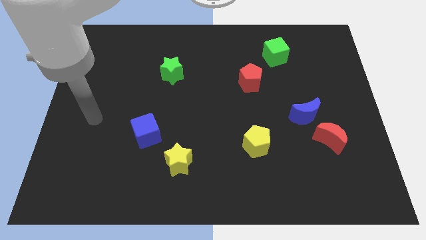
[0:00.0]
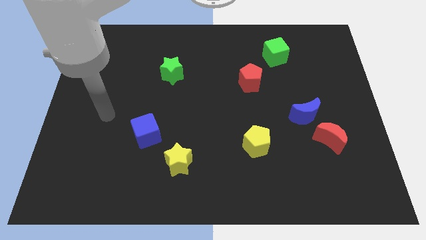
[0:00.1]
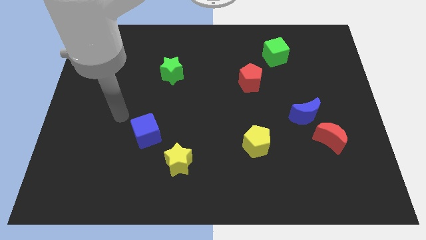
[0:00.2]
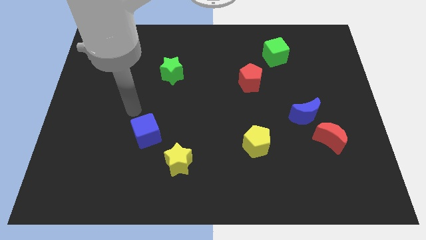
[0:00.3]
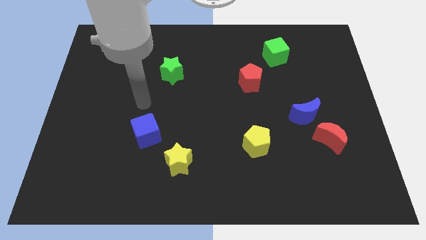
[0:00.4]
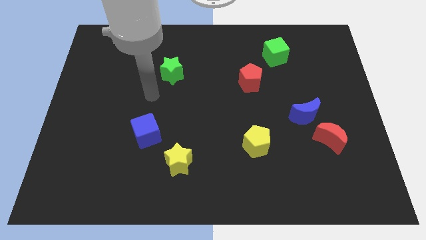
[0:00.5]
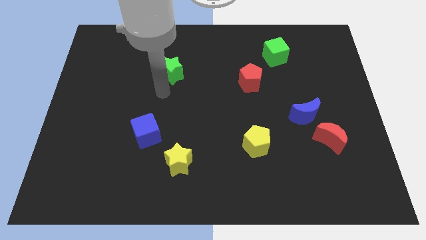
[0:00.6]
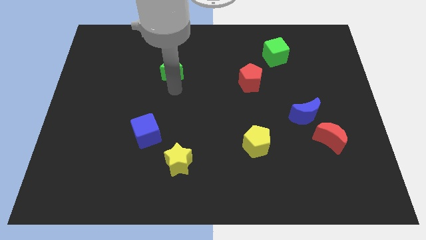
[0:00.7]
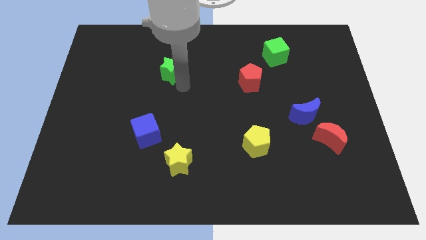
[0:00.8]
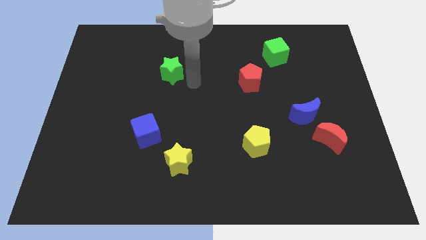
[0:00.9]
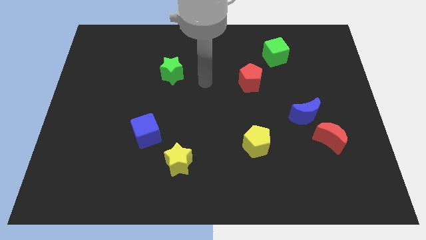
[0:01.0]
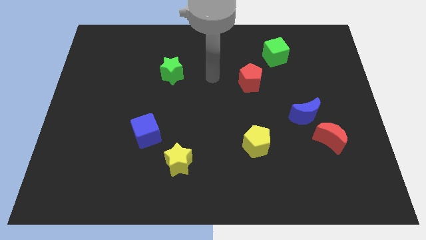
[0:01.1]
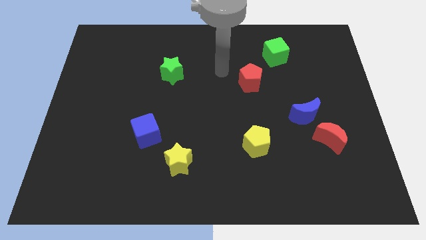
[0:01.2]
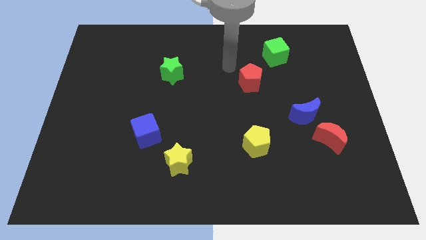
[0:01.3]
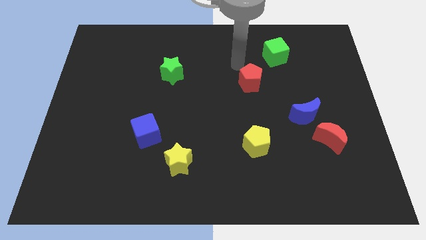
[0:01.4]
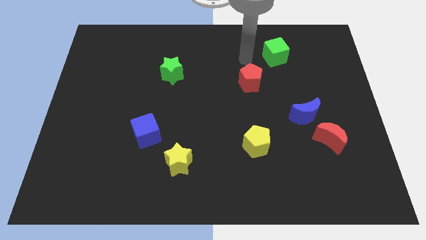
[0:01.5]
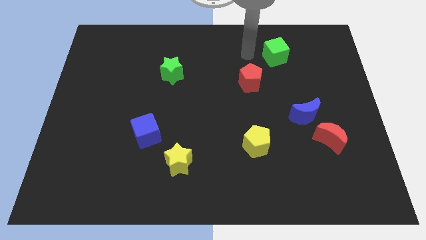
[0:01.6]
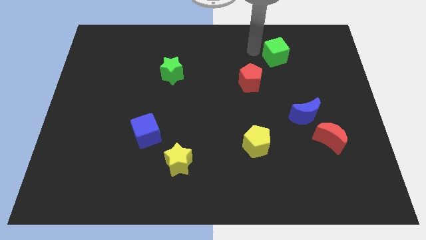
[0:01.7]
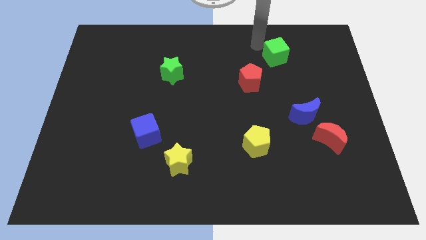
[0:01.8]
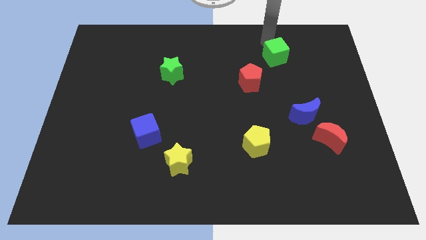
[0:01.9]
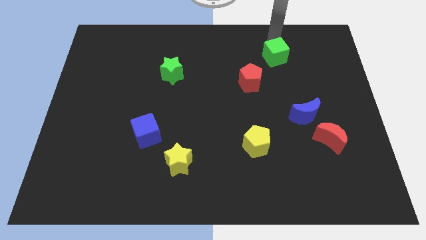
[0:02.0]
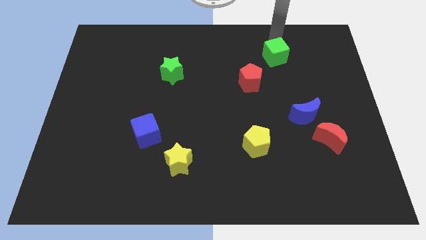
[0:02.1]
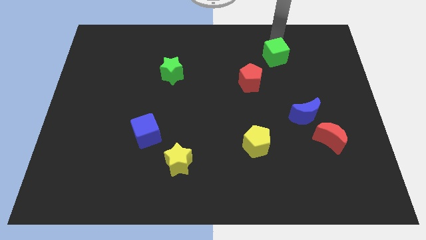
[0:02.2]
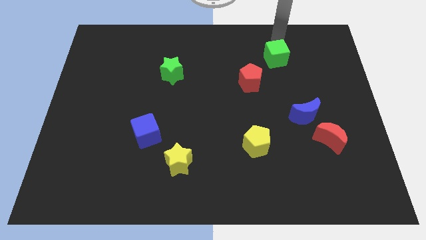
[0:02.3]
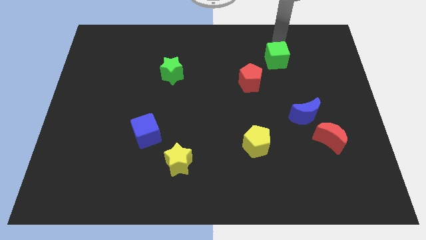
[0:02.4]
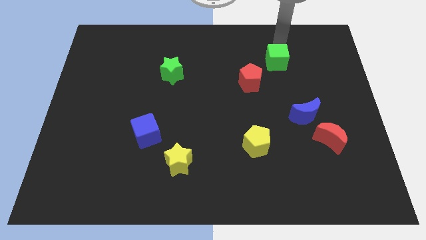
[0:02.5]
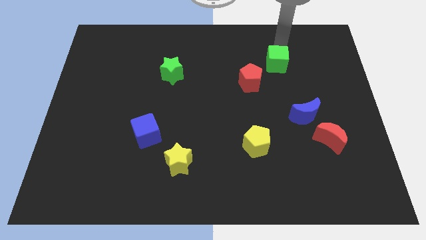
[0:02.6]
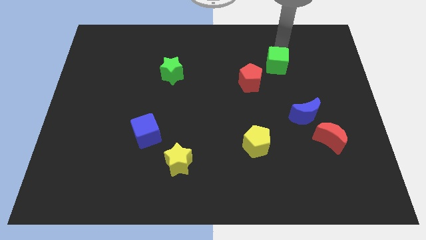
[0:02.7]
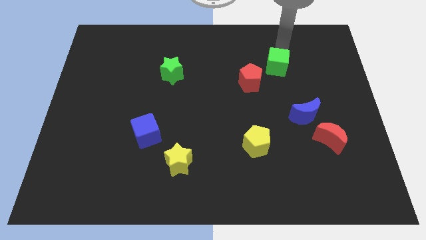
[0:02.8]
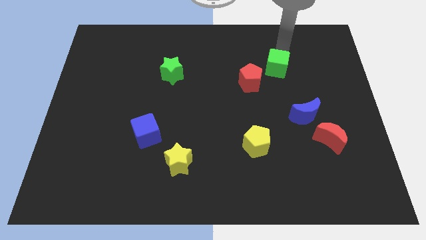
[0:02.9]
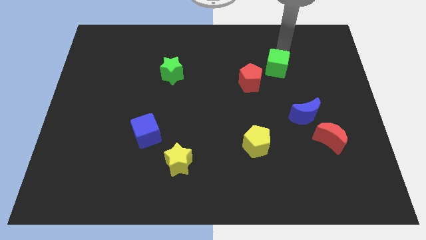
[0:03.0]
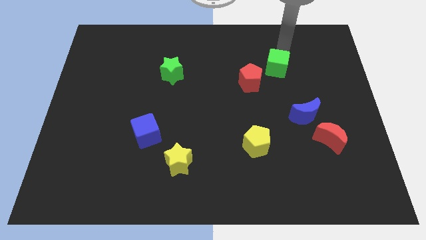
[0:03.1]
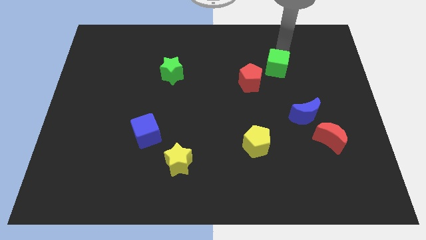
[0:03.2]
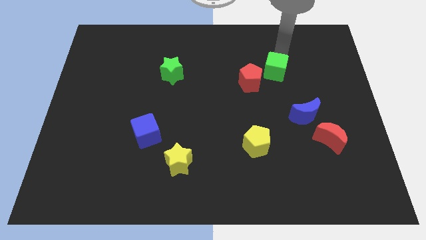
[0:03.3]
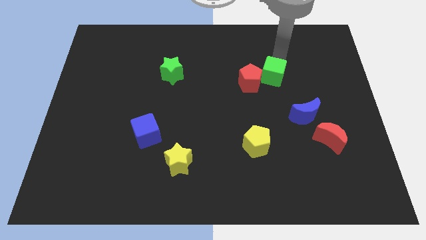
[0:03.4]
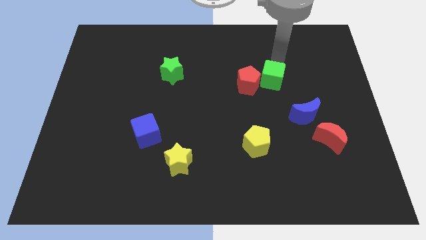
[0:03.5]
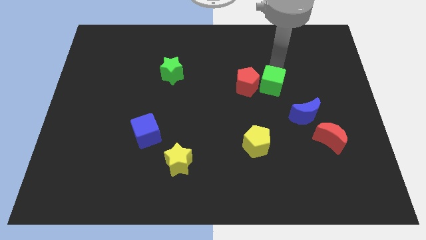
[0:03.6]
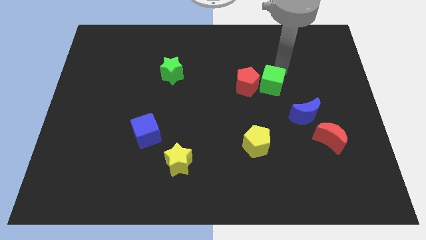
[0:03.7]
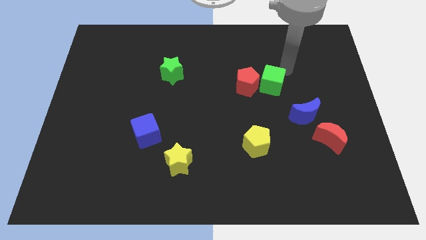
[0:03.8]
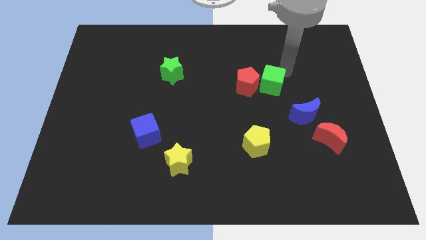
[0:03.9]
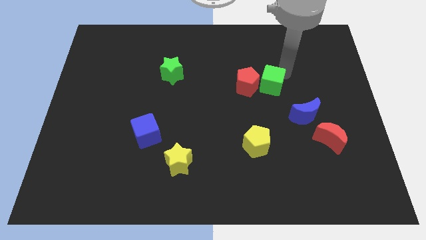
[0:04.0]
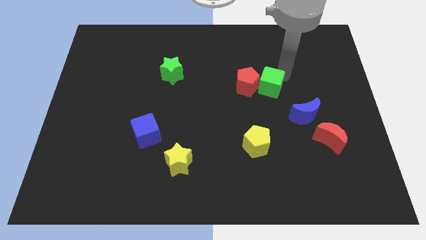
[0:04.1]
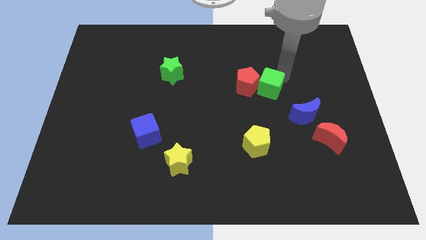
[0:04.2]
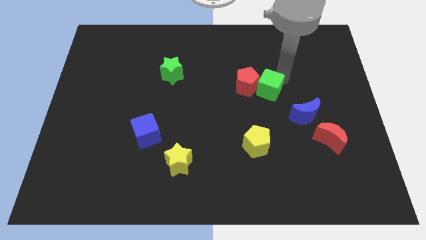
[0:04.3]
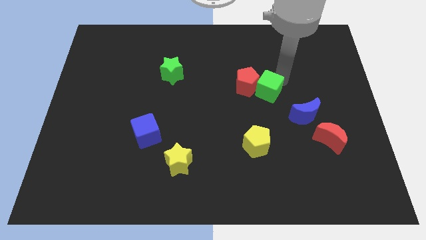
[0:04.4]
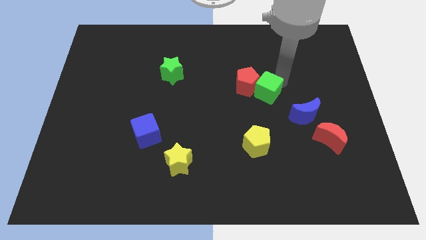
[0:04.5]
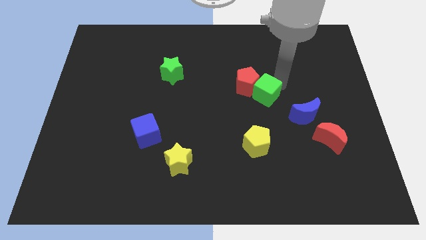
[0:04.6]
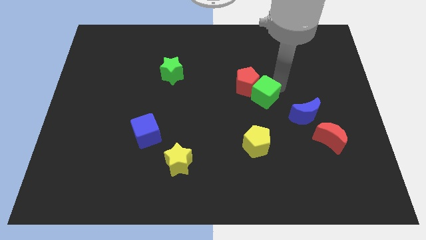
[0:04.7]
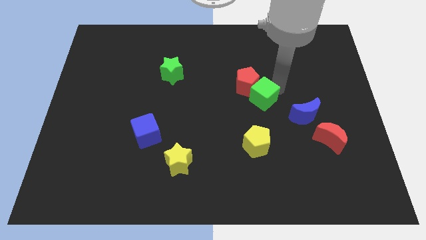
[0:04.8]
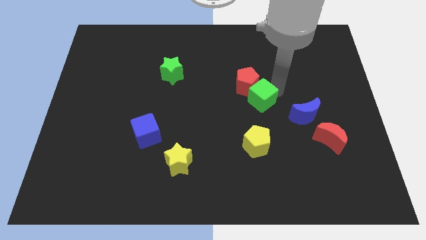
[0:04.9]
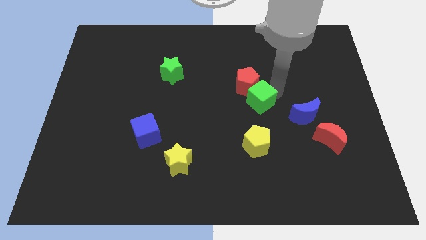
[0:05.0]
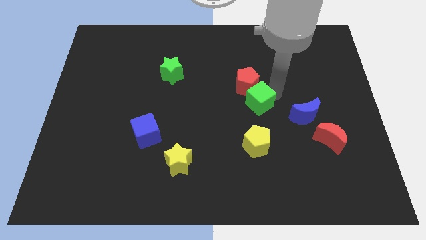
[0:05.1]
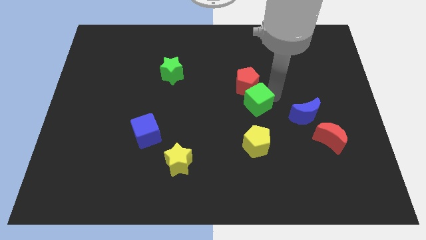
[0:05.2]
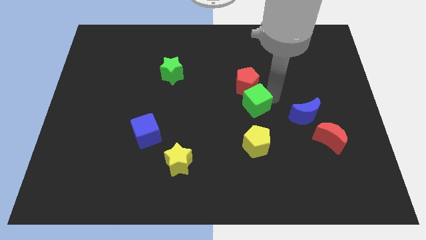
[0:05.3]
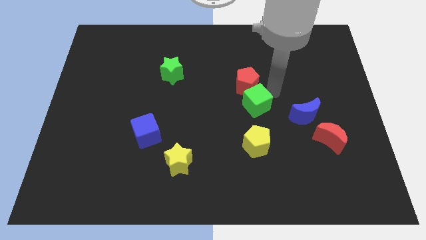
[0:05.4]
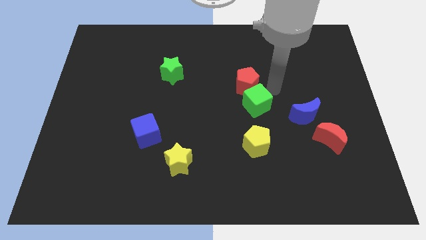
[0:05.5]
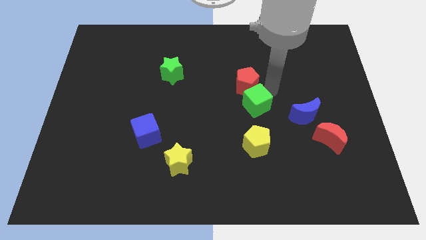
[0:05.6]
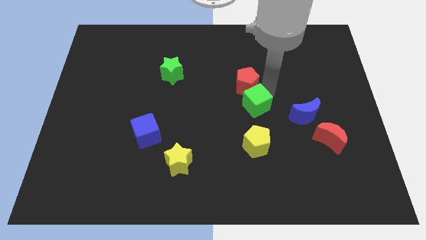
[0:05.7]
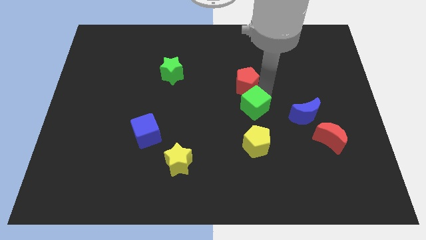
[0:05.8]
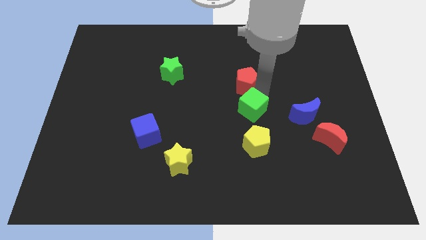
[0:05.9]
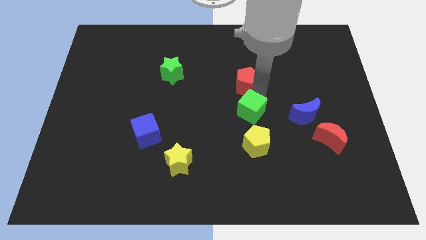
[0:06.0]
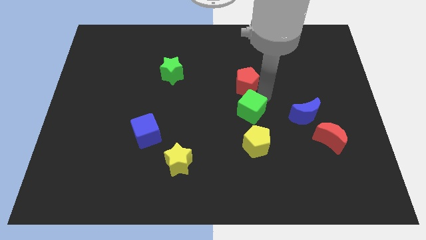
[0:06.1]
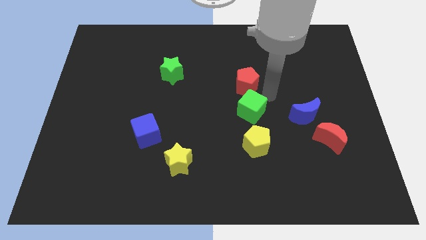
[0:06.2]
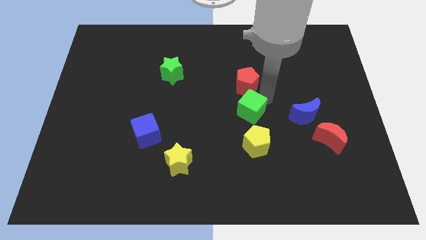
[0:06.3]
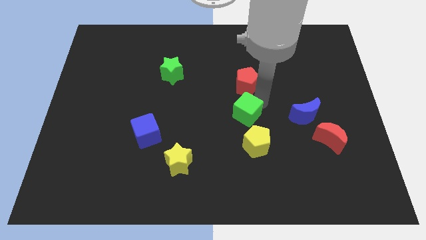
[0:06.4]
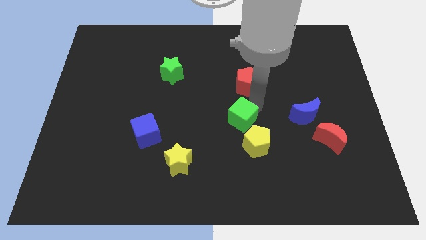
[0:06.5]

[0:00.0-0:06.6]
slide the green cube diagonally up and to the left of the yellow pentagon
